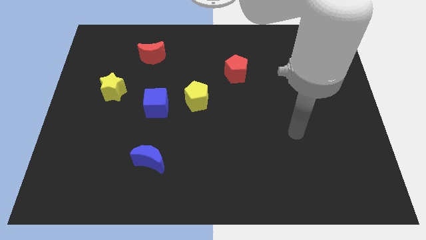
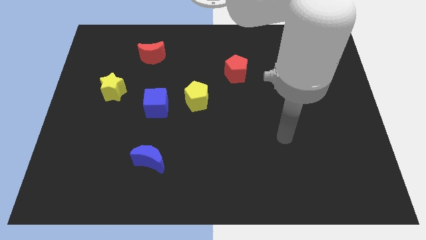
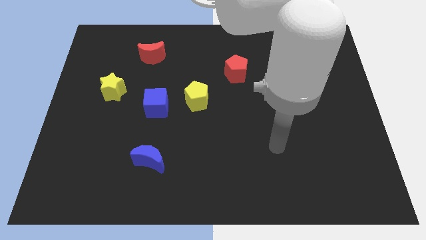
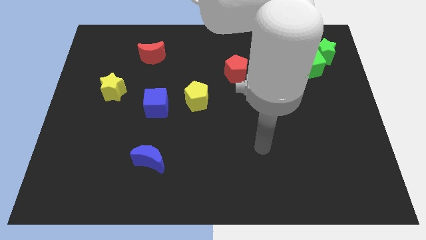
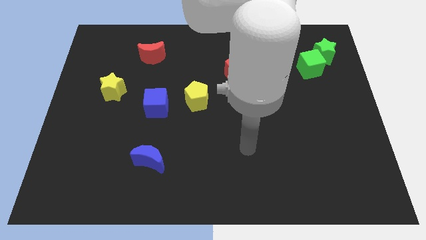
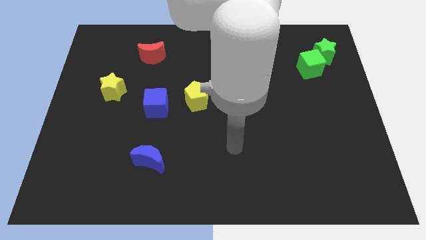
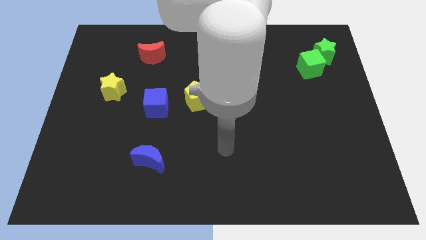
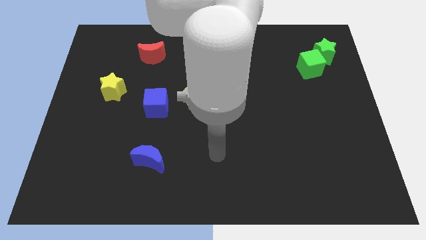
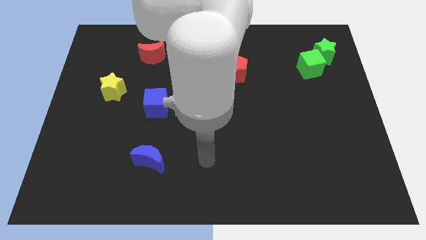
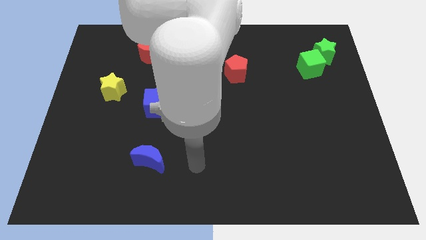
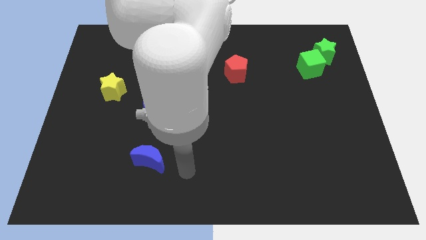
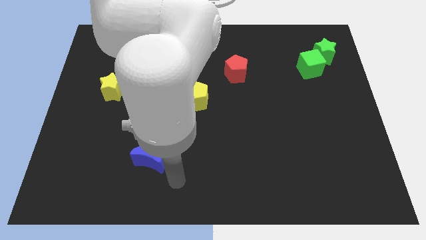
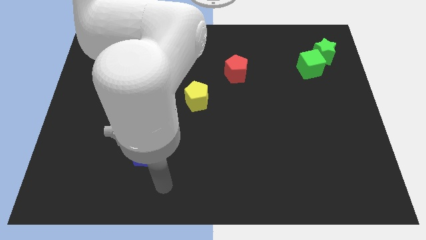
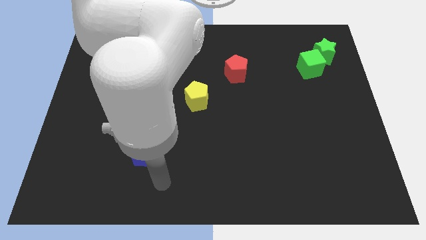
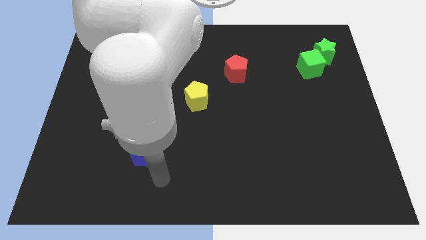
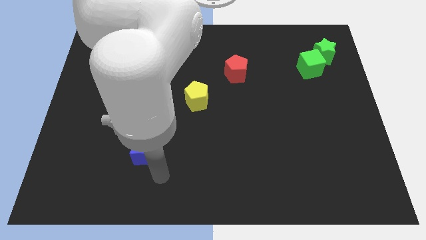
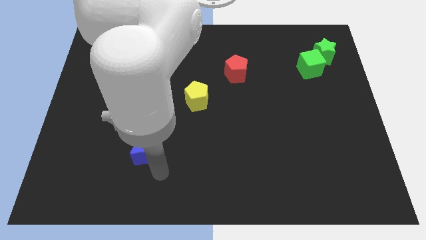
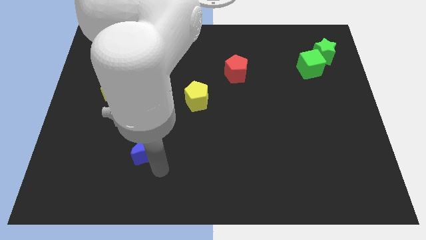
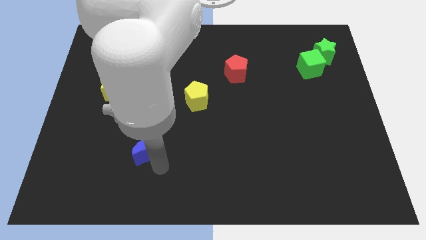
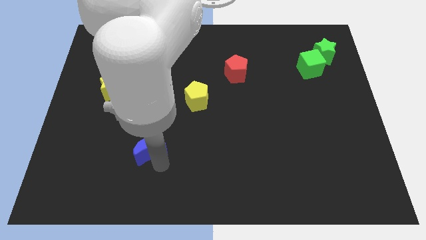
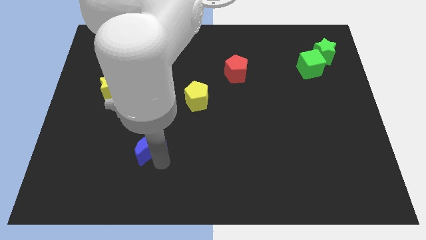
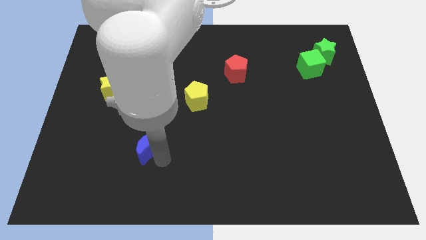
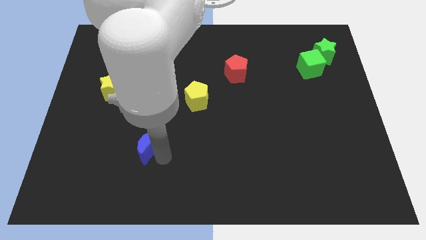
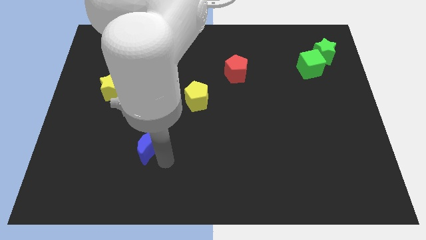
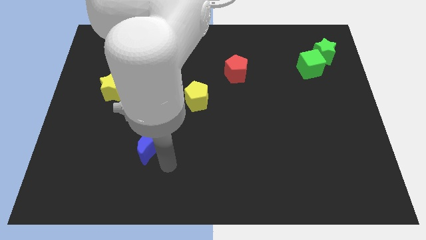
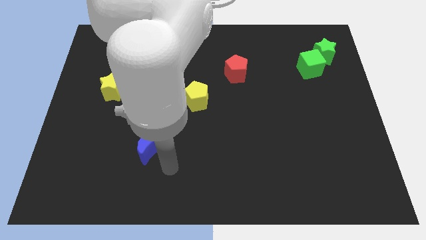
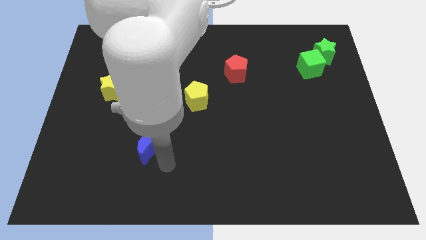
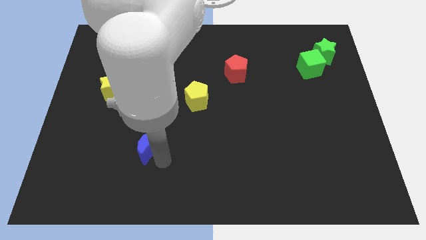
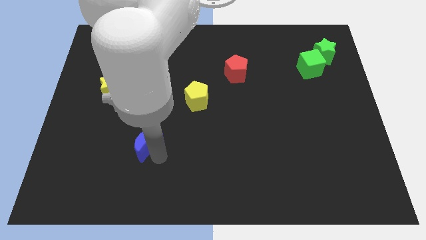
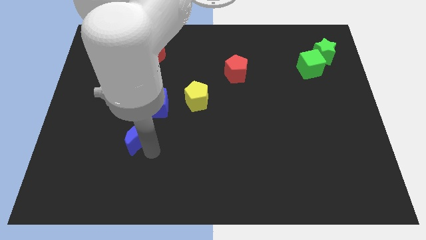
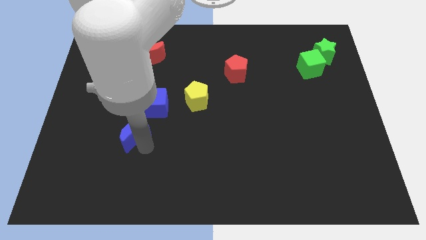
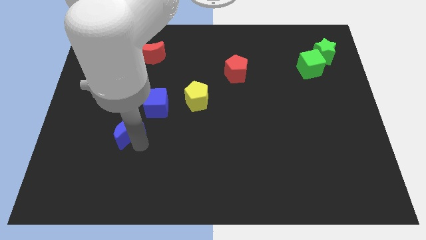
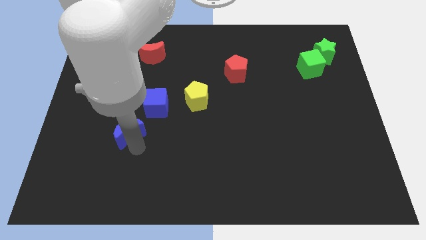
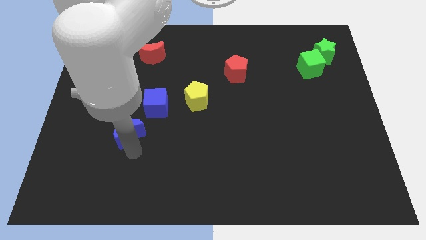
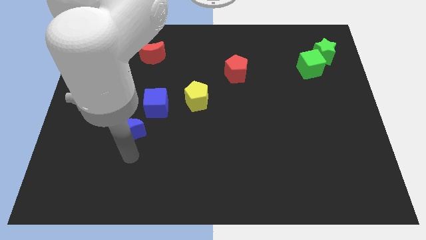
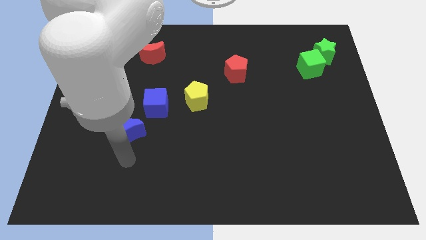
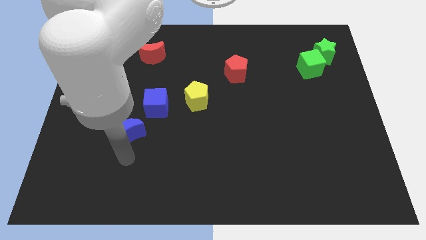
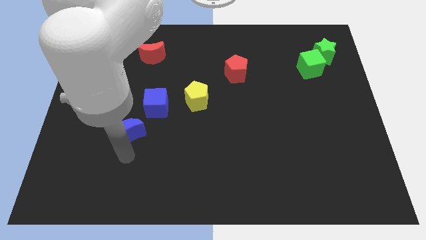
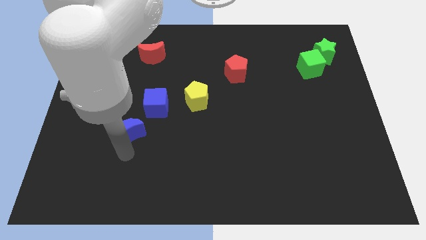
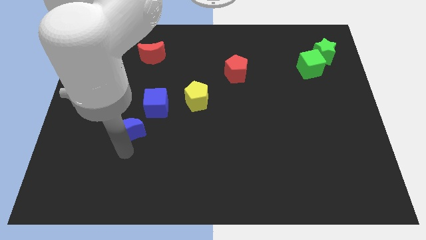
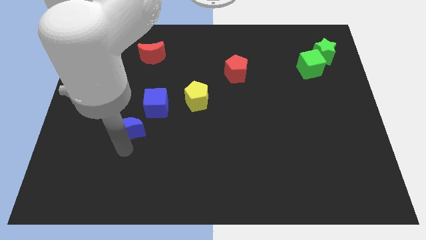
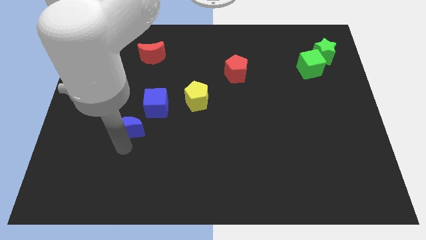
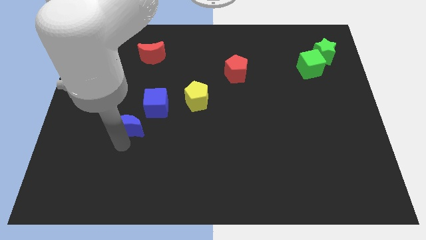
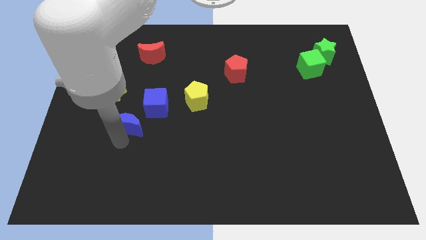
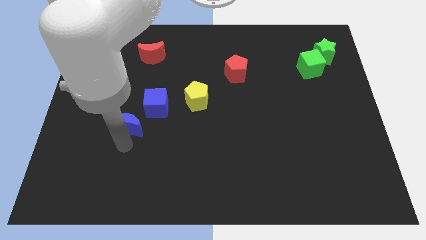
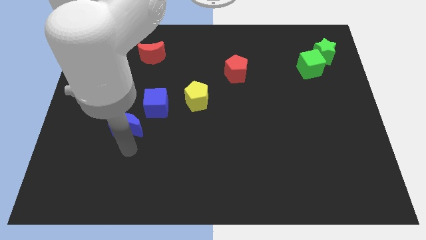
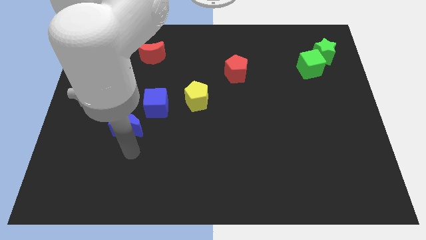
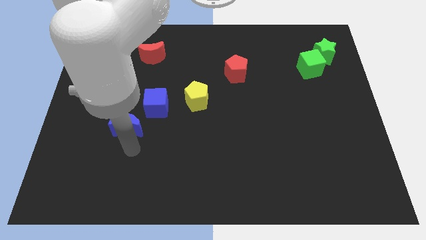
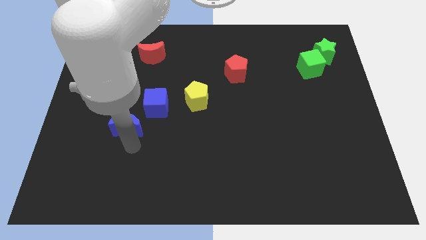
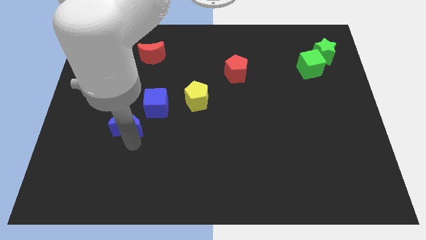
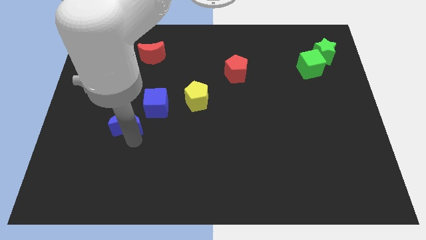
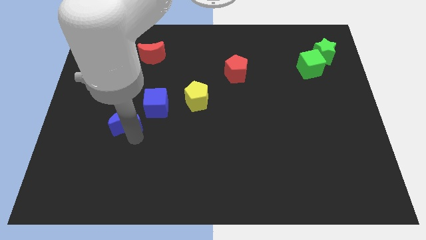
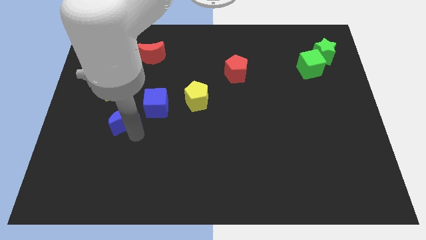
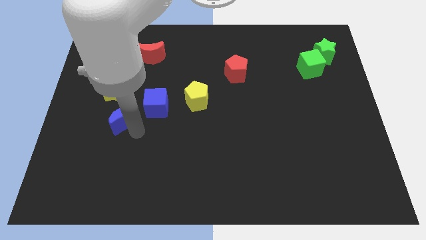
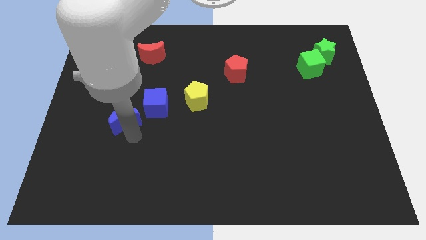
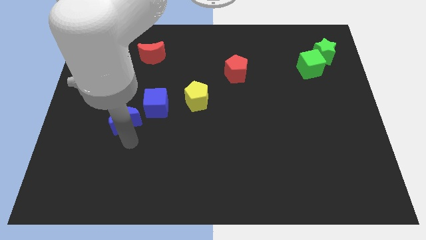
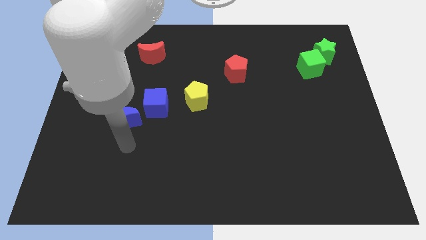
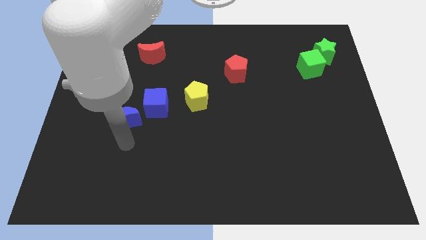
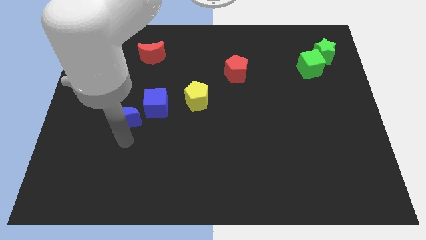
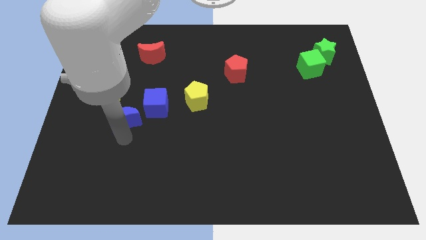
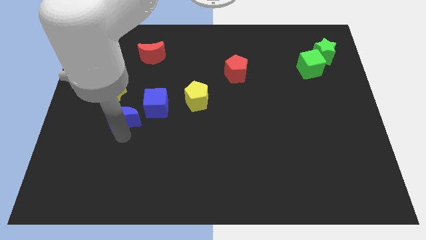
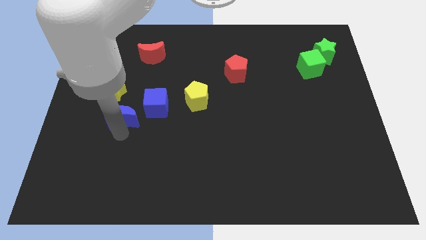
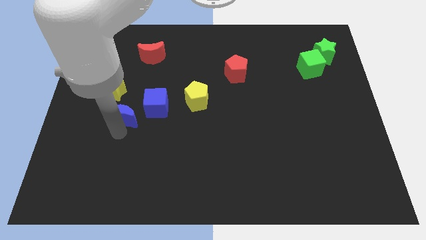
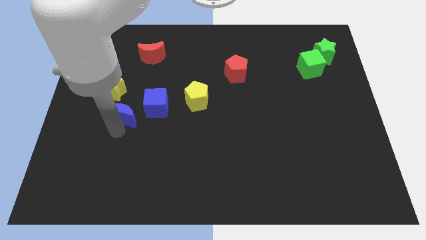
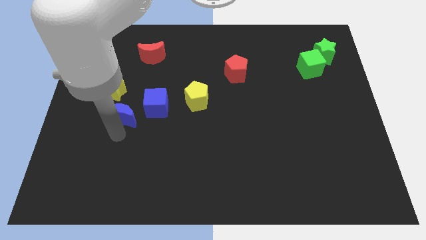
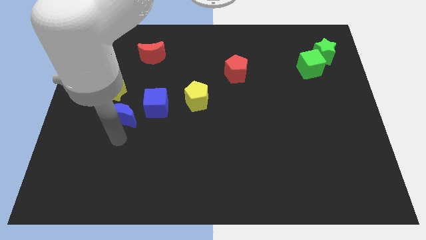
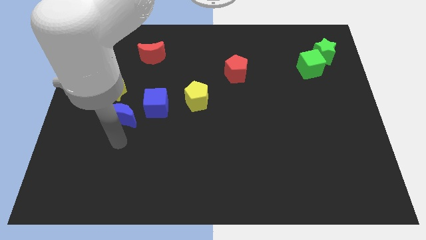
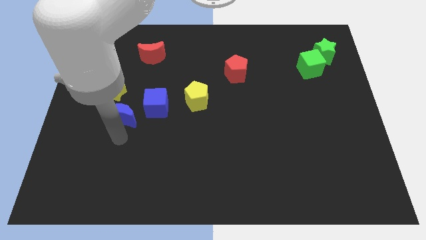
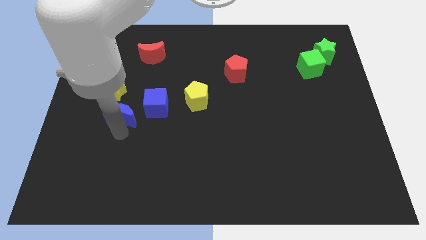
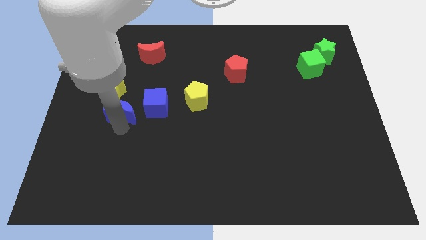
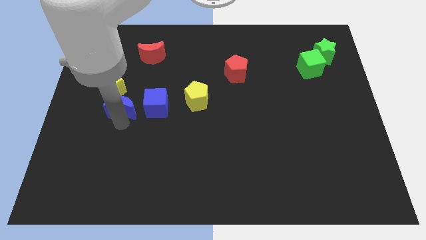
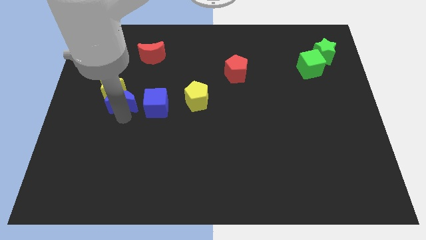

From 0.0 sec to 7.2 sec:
put the blue moon next to the yellow star
